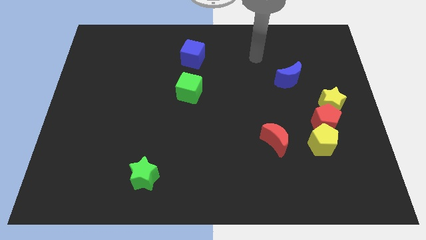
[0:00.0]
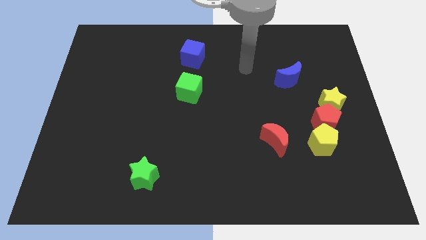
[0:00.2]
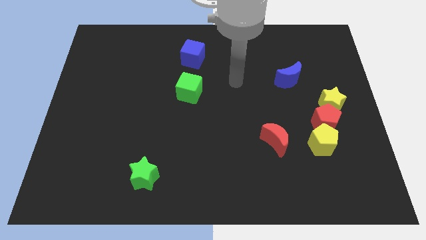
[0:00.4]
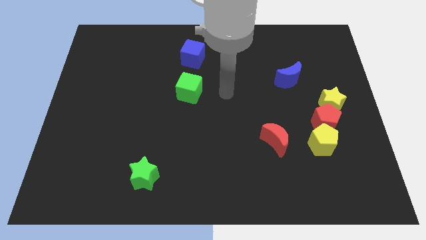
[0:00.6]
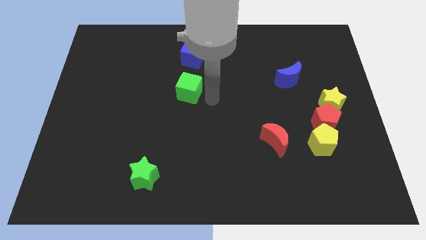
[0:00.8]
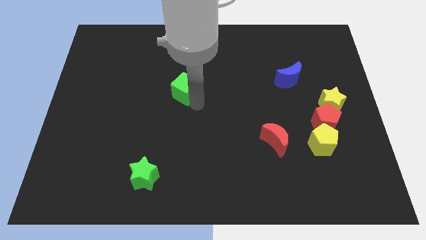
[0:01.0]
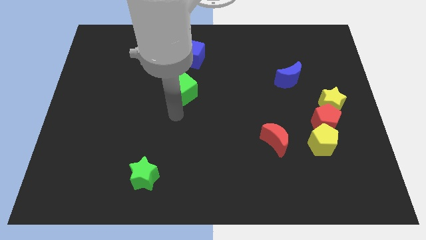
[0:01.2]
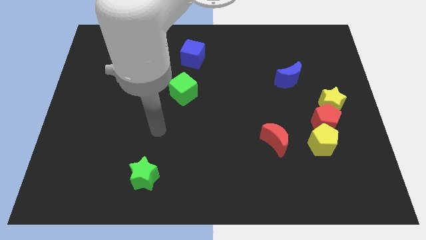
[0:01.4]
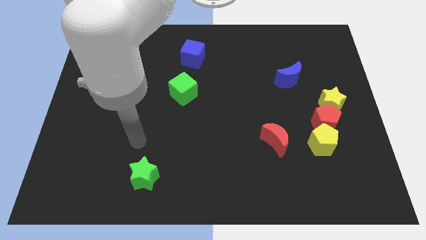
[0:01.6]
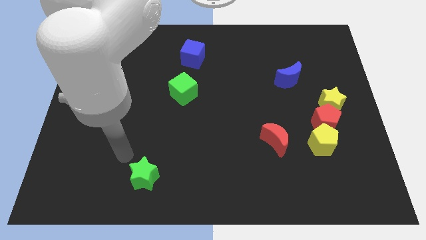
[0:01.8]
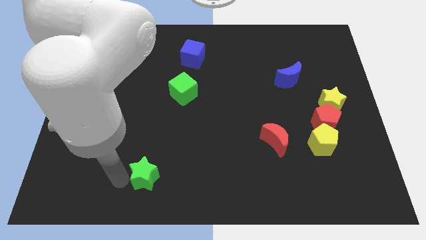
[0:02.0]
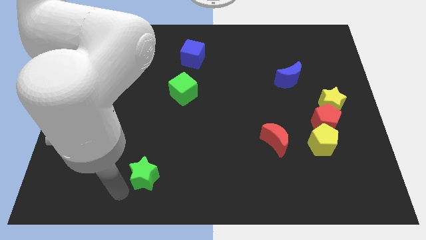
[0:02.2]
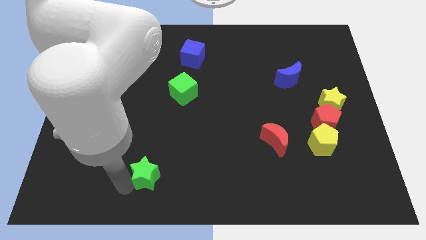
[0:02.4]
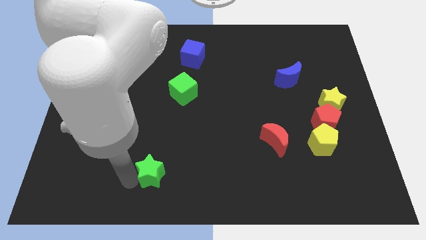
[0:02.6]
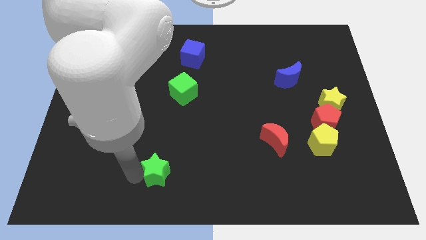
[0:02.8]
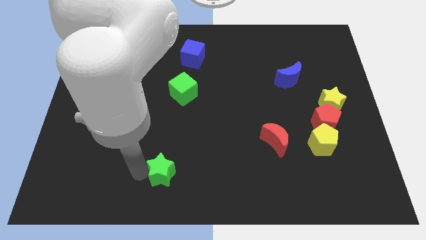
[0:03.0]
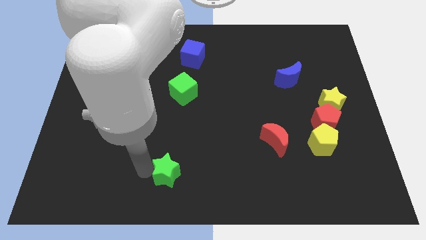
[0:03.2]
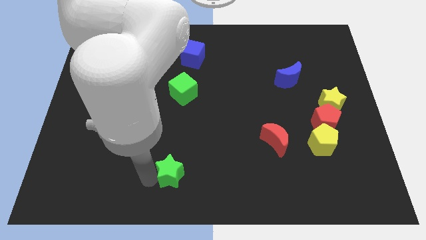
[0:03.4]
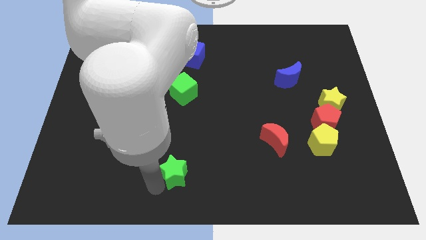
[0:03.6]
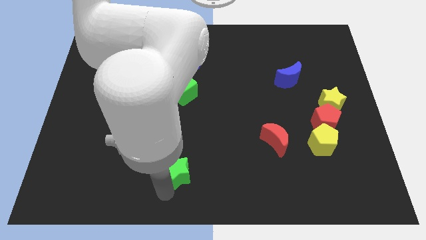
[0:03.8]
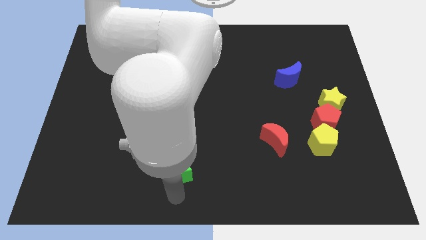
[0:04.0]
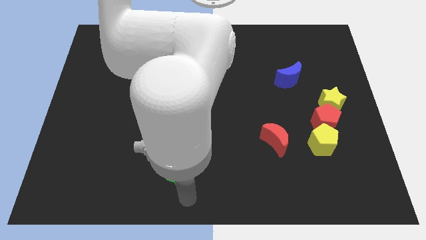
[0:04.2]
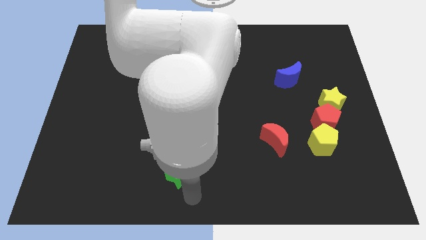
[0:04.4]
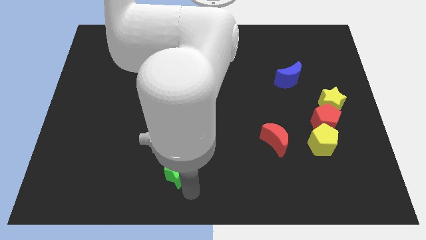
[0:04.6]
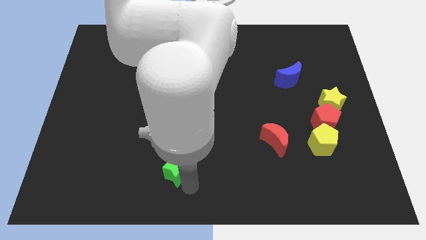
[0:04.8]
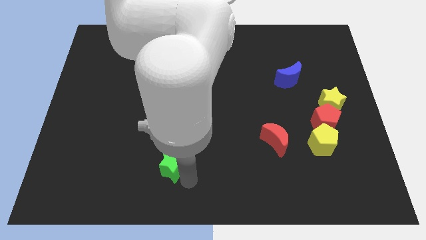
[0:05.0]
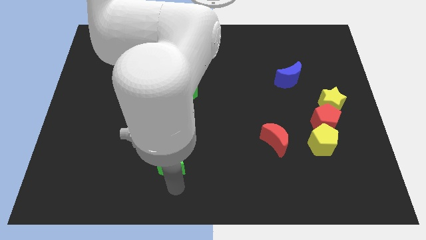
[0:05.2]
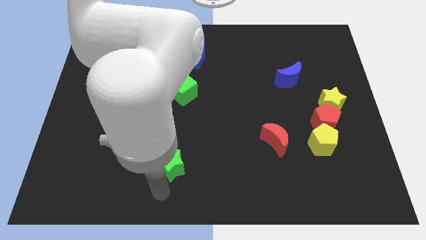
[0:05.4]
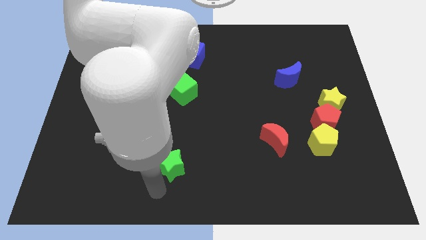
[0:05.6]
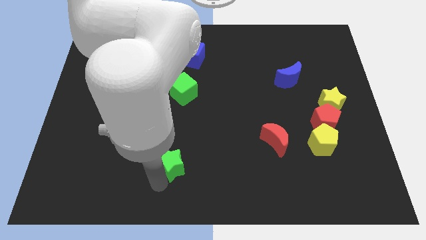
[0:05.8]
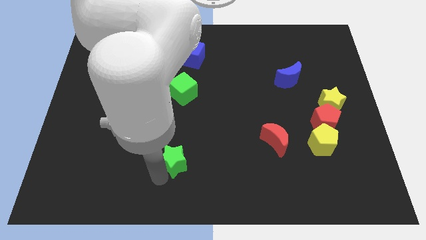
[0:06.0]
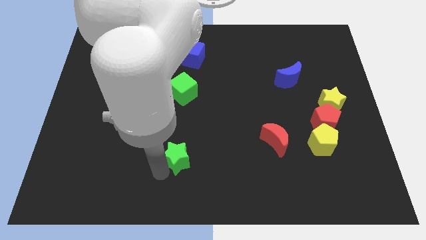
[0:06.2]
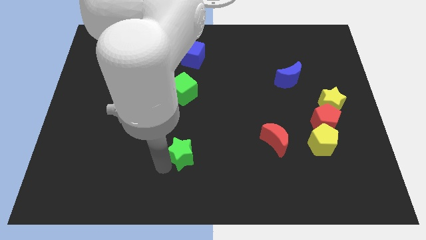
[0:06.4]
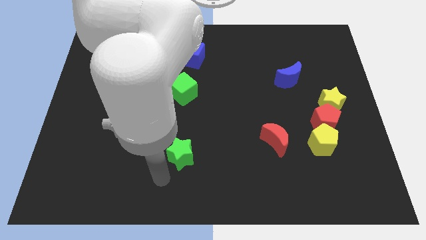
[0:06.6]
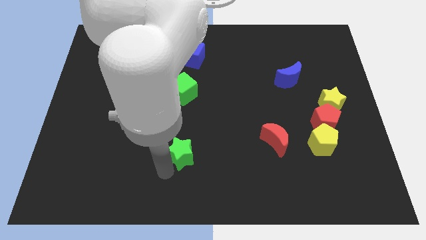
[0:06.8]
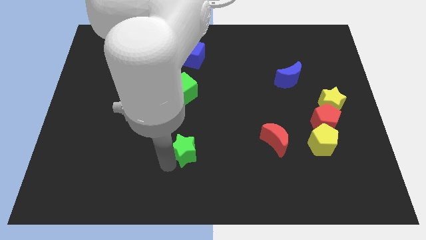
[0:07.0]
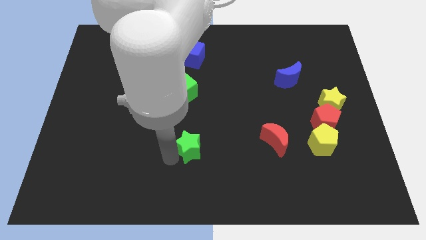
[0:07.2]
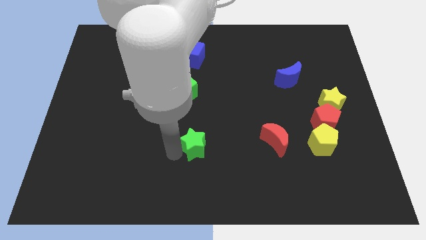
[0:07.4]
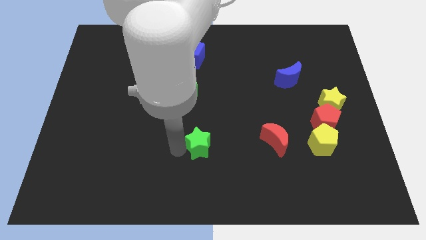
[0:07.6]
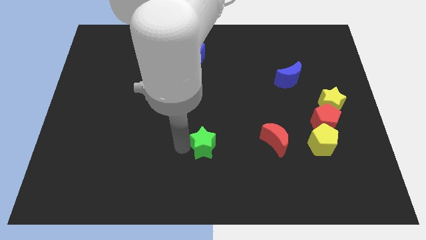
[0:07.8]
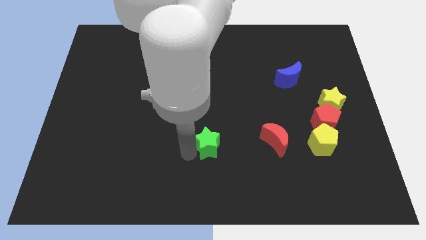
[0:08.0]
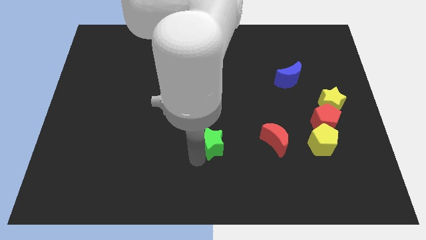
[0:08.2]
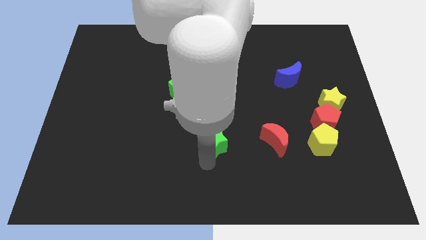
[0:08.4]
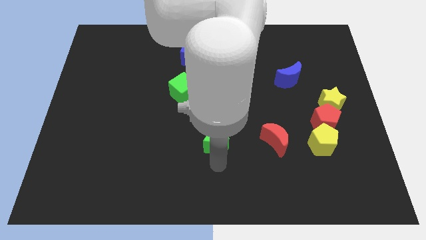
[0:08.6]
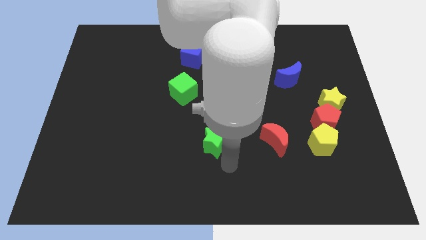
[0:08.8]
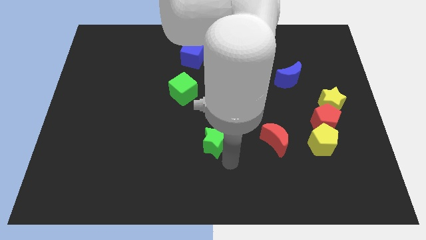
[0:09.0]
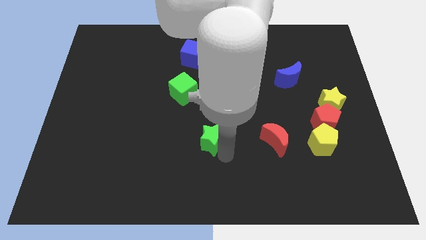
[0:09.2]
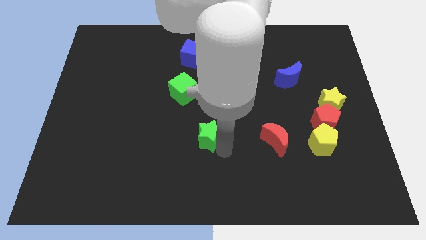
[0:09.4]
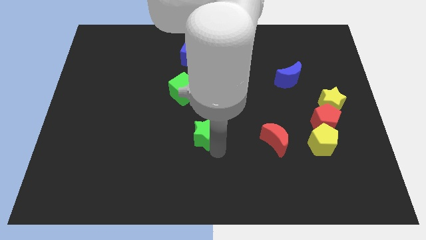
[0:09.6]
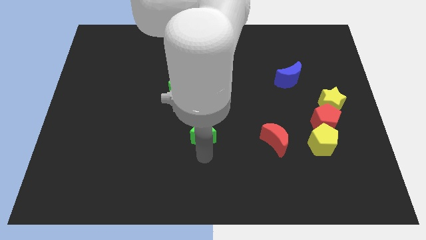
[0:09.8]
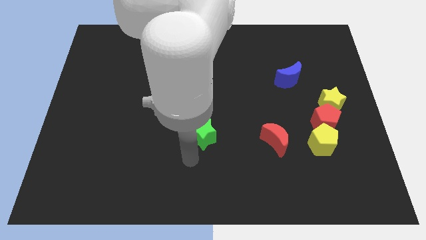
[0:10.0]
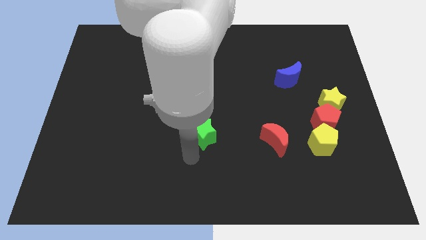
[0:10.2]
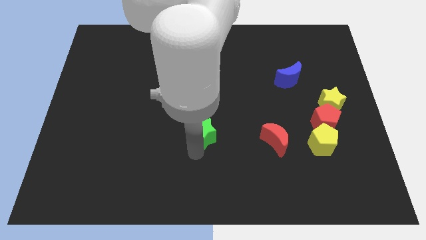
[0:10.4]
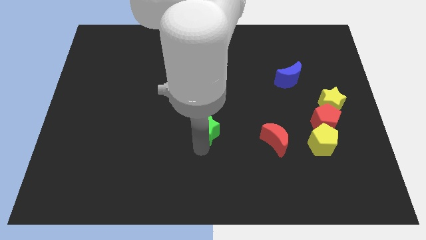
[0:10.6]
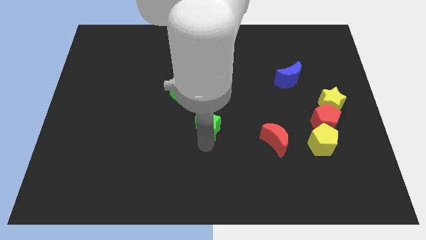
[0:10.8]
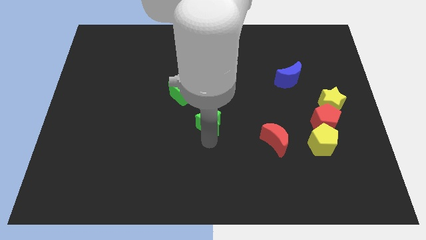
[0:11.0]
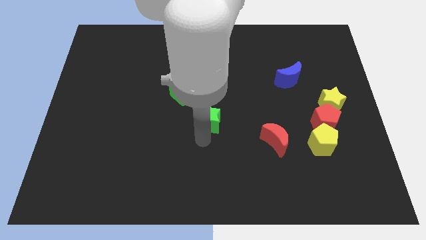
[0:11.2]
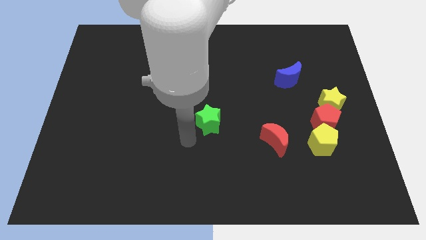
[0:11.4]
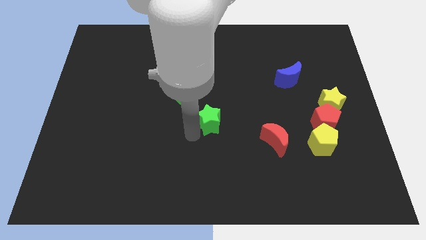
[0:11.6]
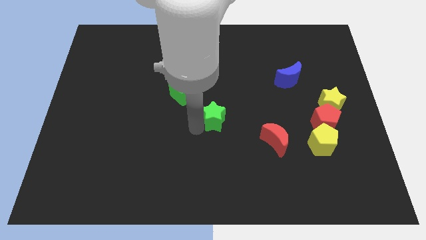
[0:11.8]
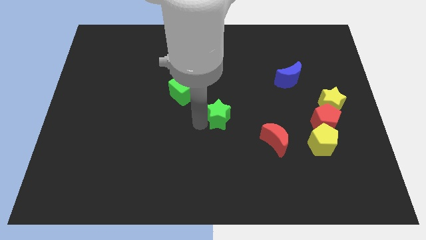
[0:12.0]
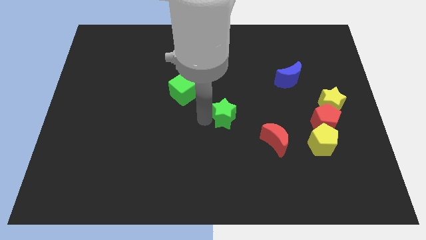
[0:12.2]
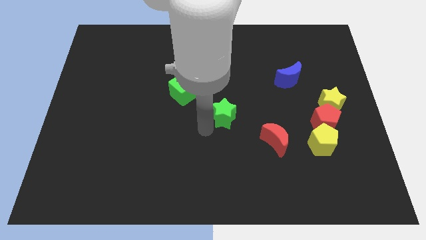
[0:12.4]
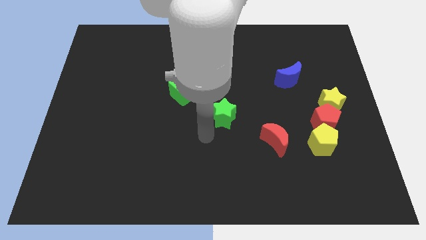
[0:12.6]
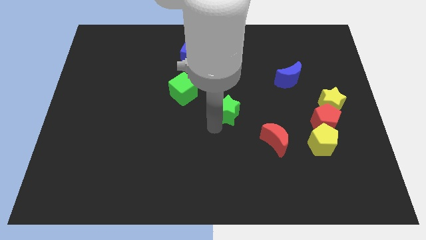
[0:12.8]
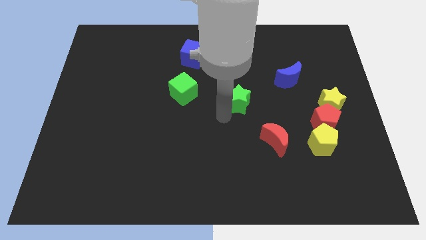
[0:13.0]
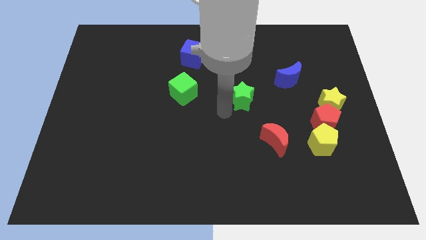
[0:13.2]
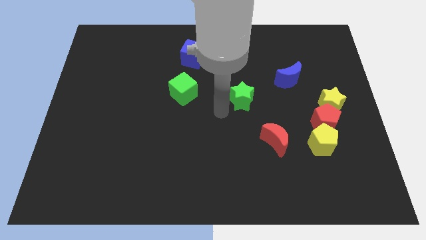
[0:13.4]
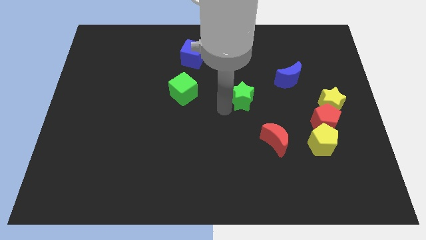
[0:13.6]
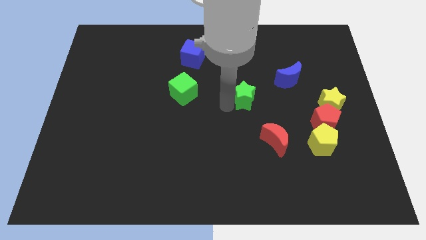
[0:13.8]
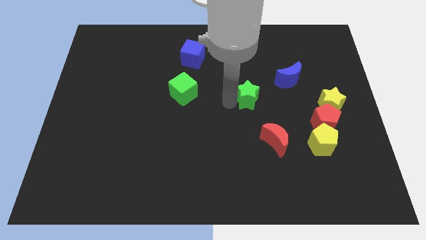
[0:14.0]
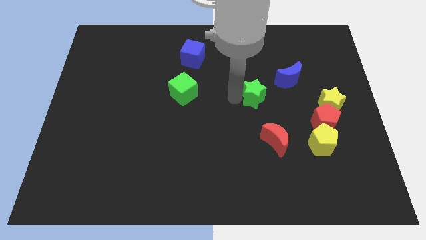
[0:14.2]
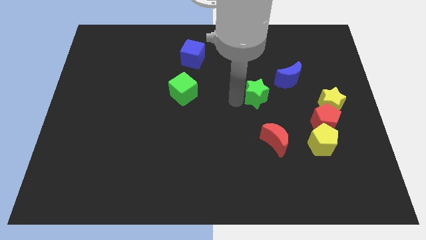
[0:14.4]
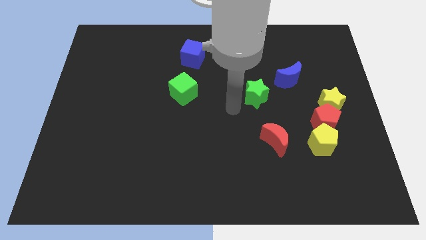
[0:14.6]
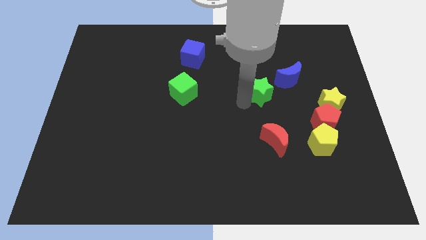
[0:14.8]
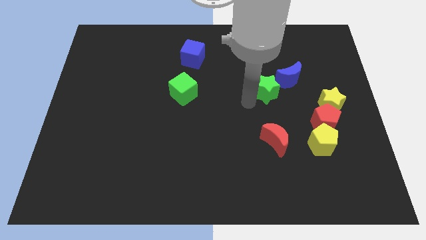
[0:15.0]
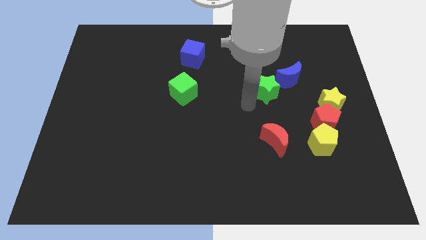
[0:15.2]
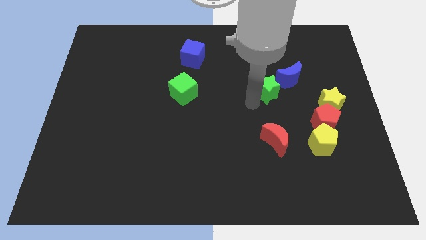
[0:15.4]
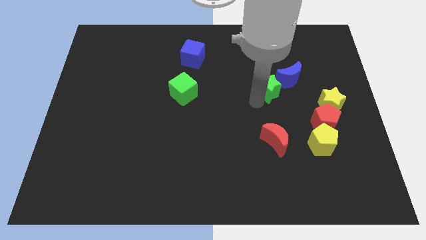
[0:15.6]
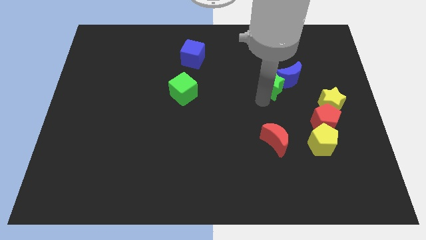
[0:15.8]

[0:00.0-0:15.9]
put the green star to the blue moon

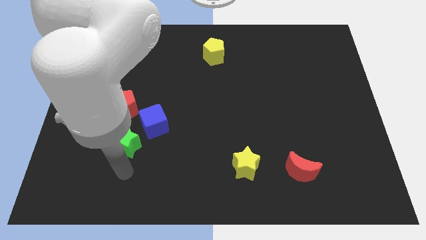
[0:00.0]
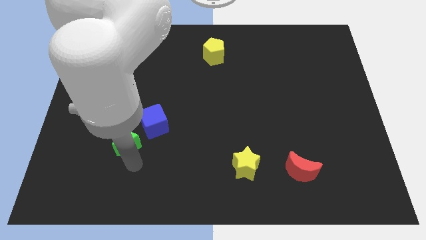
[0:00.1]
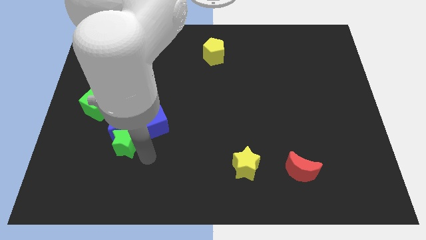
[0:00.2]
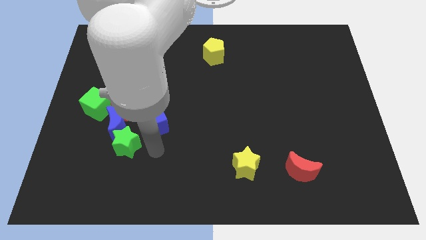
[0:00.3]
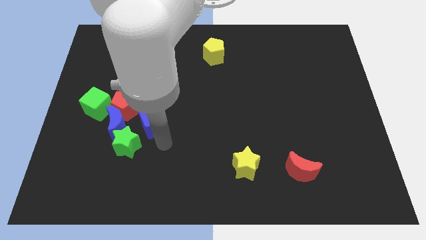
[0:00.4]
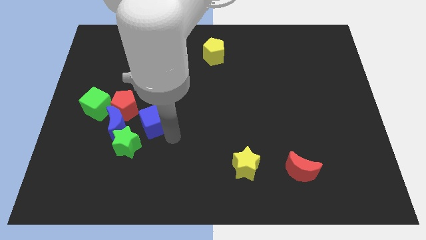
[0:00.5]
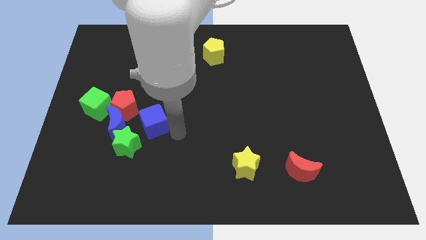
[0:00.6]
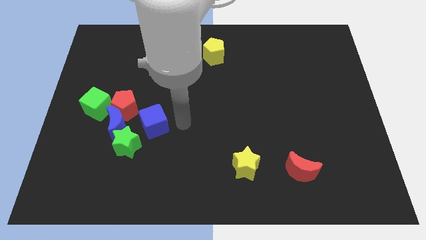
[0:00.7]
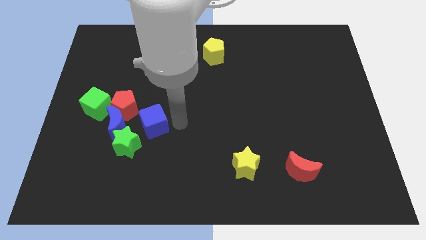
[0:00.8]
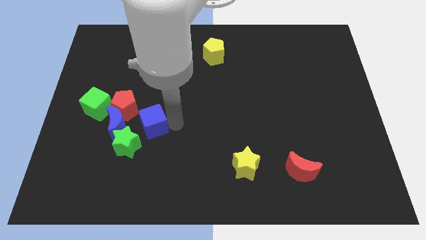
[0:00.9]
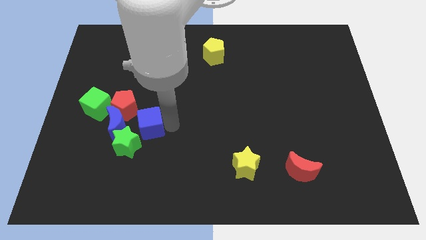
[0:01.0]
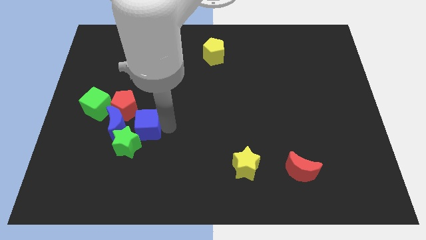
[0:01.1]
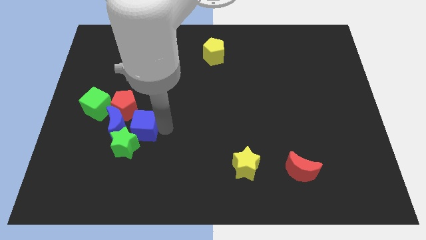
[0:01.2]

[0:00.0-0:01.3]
push the blue cube towards the blue moon
